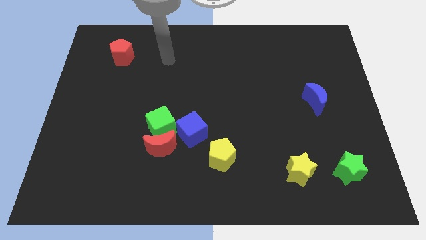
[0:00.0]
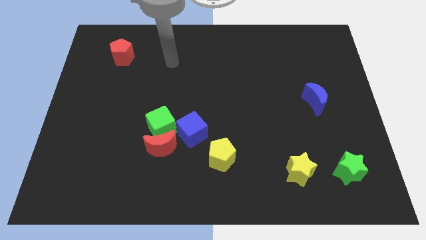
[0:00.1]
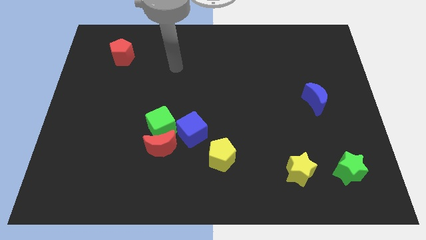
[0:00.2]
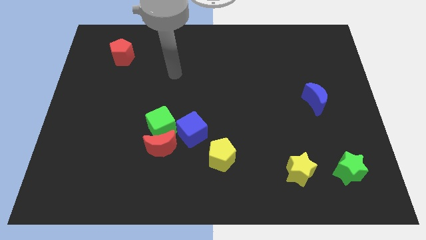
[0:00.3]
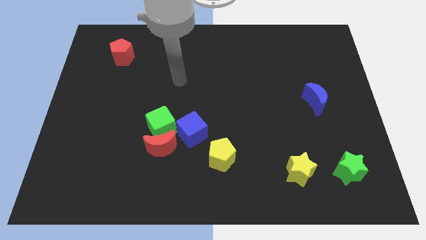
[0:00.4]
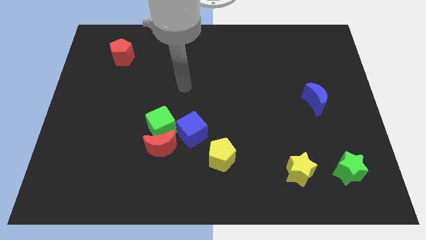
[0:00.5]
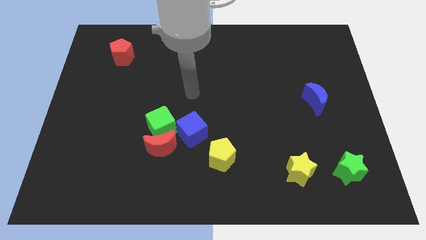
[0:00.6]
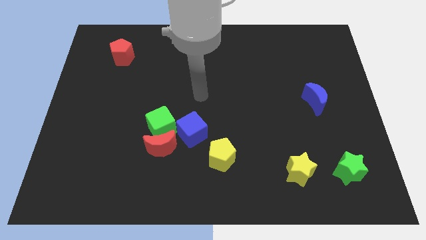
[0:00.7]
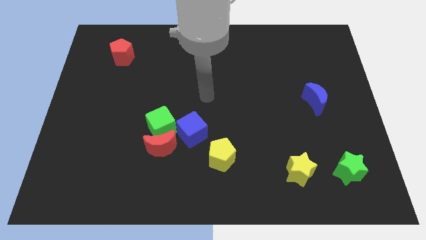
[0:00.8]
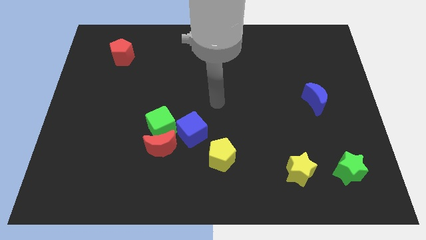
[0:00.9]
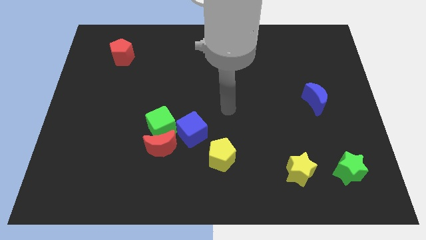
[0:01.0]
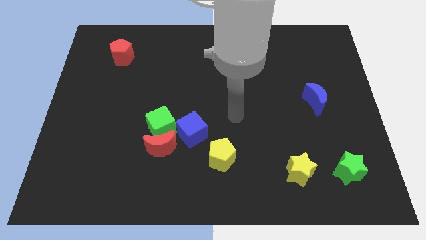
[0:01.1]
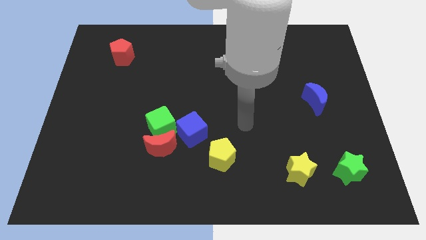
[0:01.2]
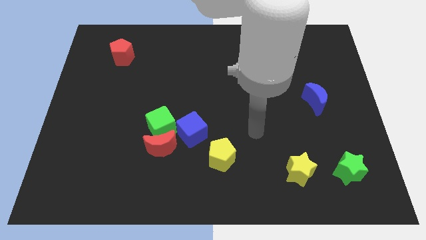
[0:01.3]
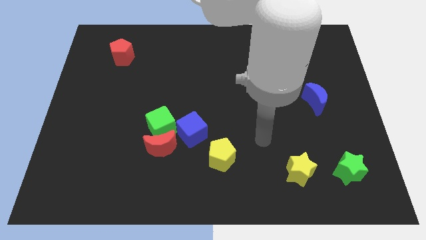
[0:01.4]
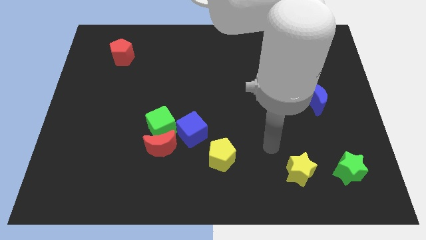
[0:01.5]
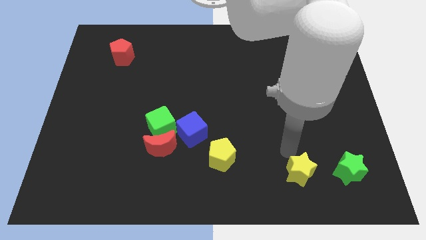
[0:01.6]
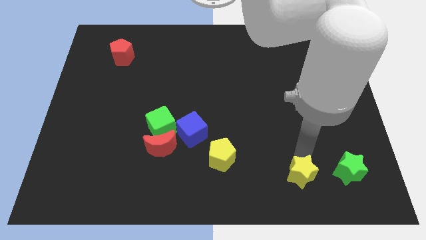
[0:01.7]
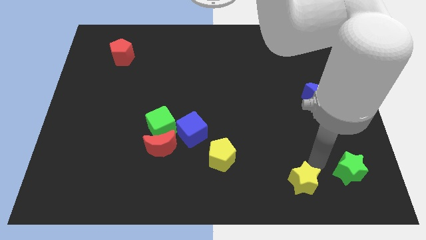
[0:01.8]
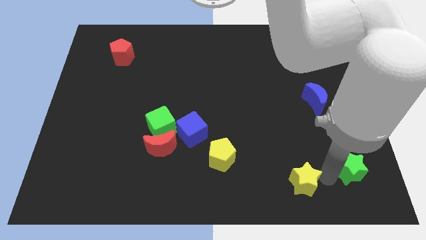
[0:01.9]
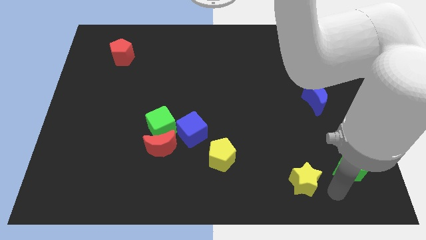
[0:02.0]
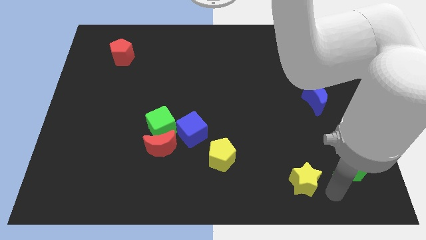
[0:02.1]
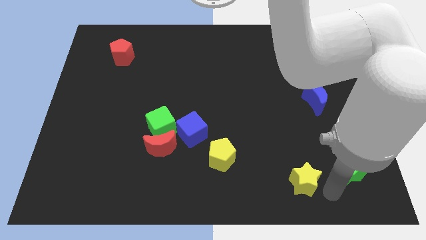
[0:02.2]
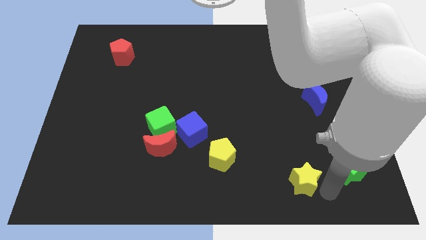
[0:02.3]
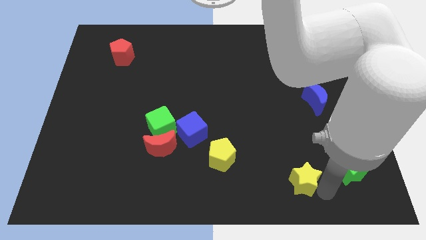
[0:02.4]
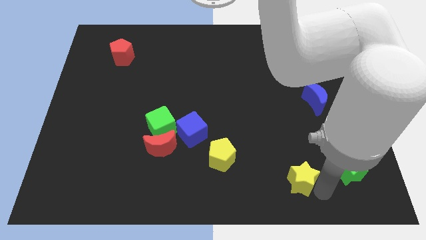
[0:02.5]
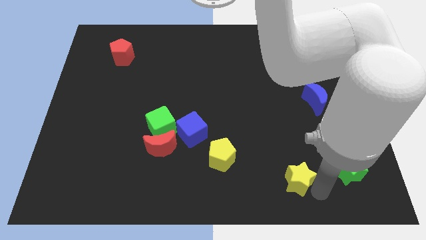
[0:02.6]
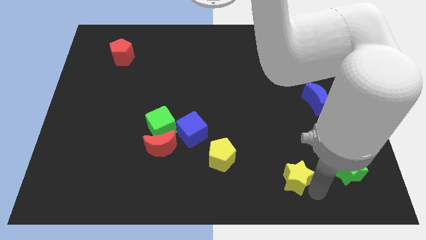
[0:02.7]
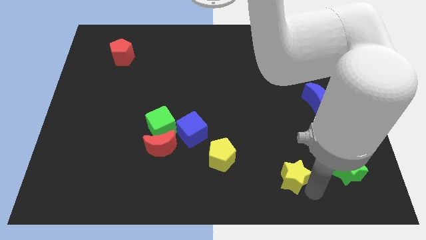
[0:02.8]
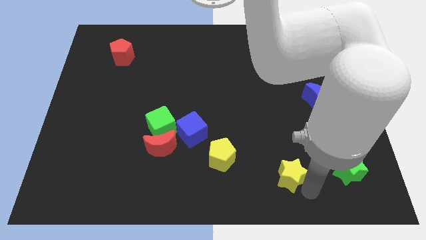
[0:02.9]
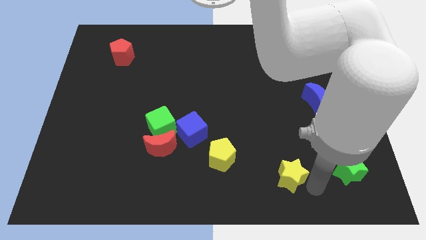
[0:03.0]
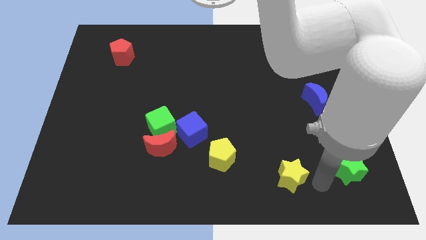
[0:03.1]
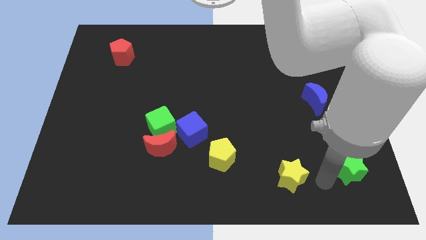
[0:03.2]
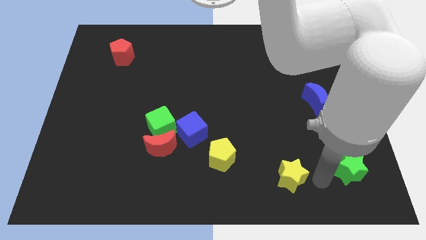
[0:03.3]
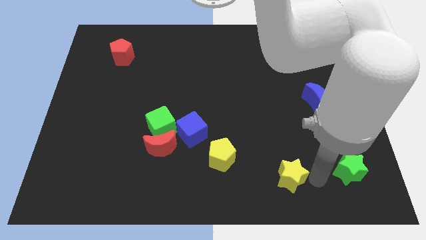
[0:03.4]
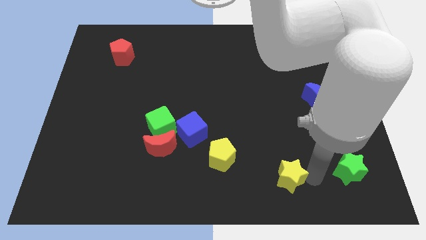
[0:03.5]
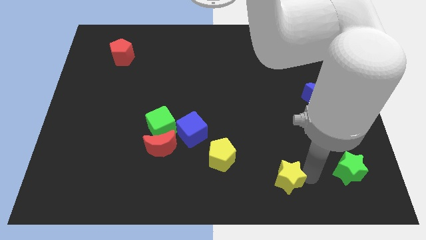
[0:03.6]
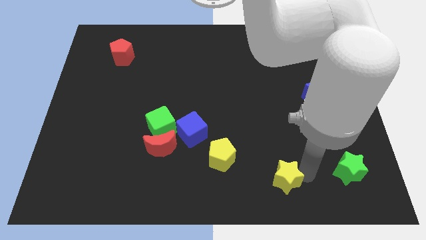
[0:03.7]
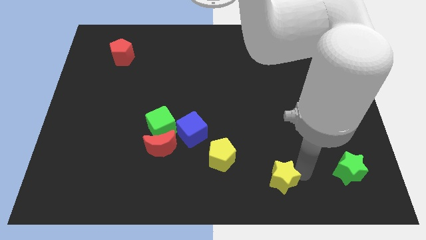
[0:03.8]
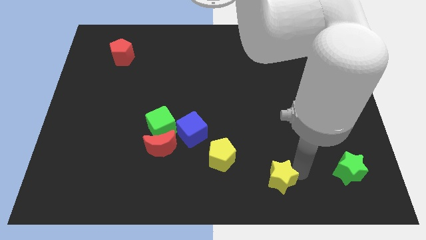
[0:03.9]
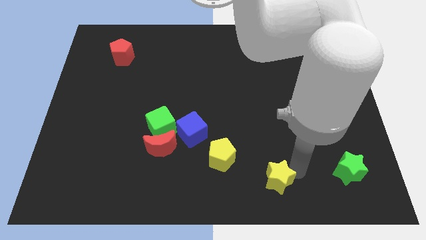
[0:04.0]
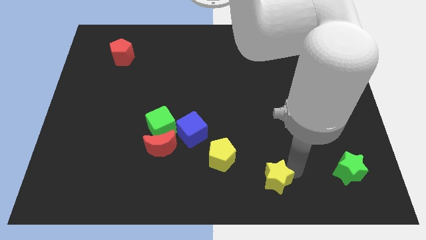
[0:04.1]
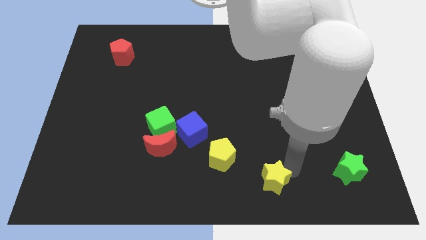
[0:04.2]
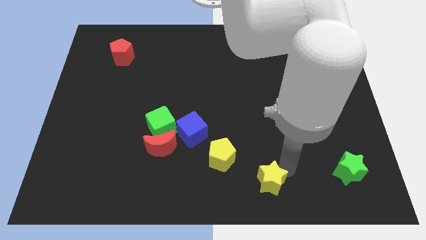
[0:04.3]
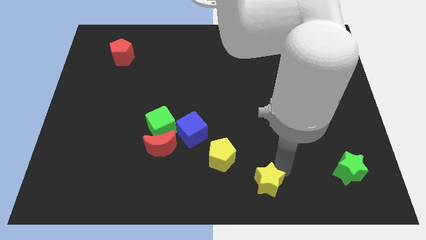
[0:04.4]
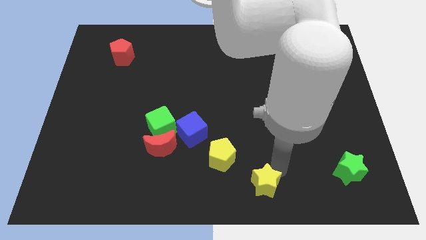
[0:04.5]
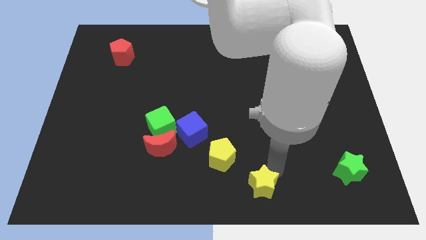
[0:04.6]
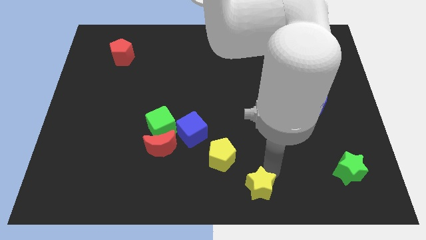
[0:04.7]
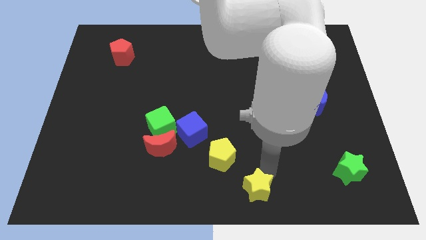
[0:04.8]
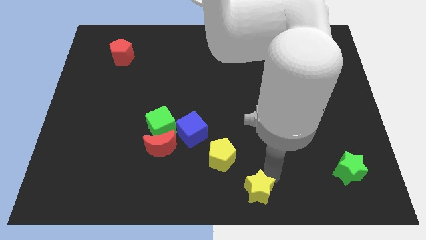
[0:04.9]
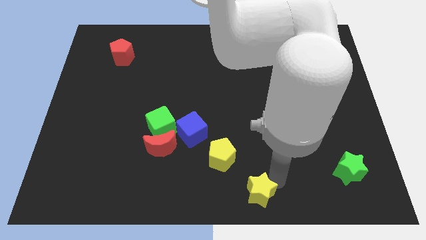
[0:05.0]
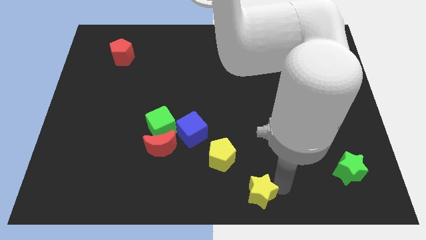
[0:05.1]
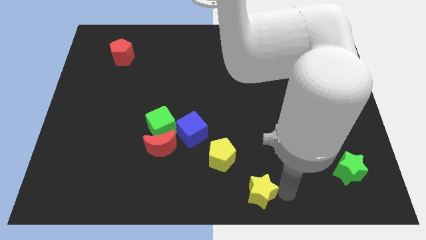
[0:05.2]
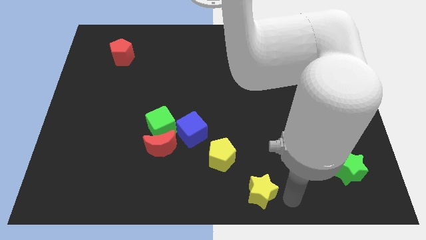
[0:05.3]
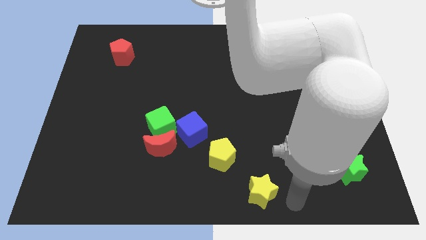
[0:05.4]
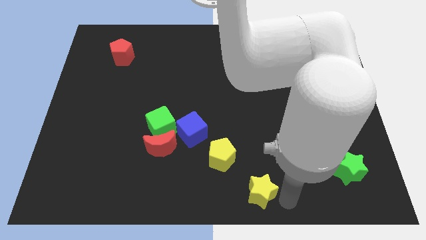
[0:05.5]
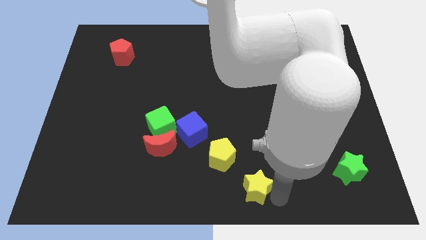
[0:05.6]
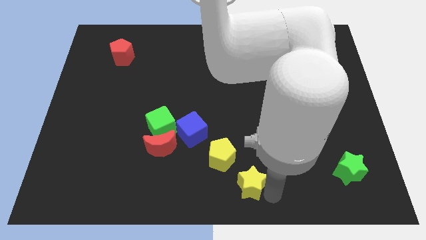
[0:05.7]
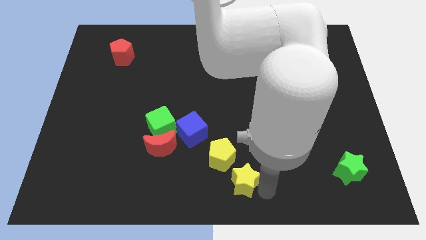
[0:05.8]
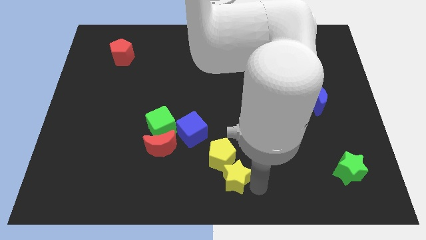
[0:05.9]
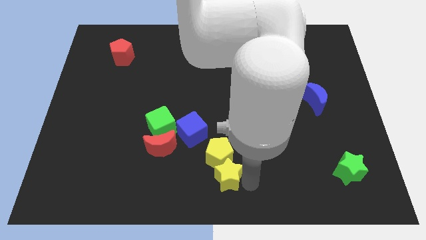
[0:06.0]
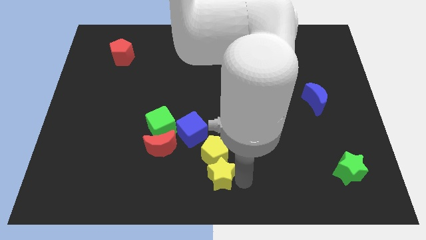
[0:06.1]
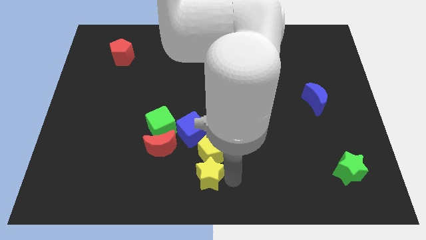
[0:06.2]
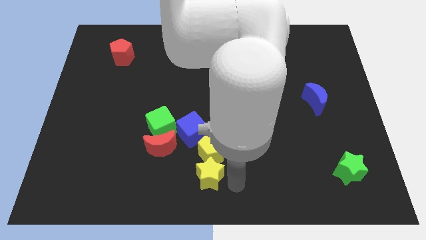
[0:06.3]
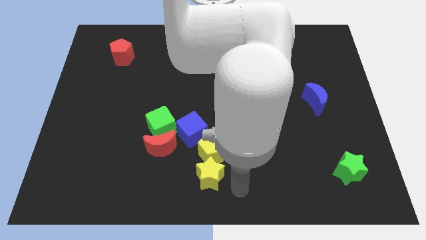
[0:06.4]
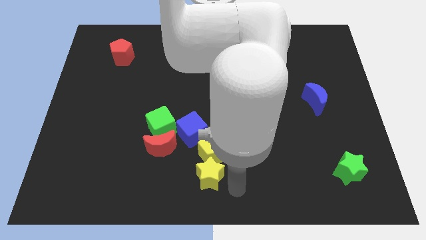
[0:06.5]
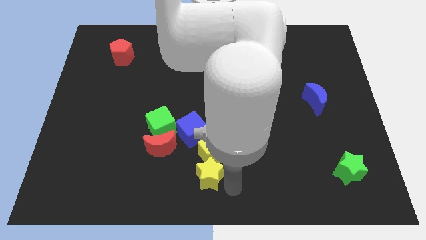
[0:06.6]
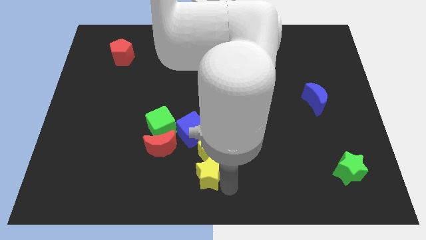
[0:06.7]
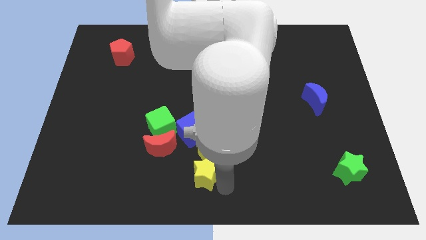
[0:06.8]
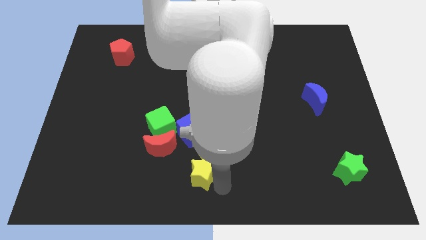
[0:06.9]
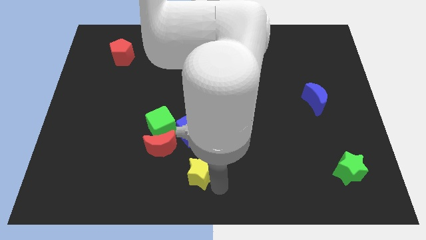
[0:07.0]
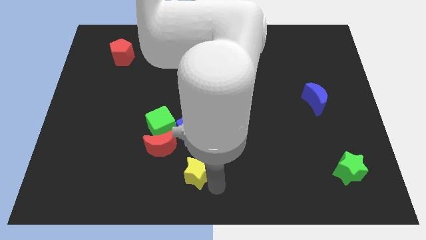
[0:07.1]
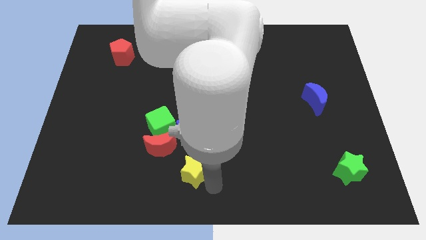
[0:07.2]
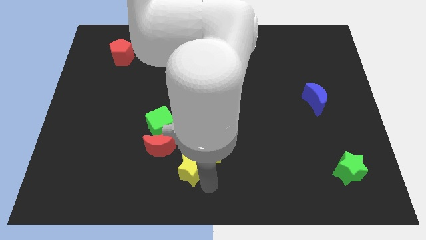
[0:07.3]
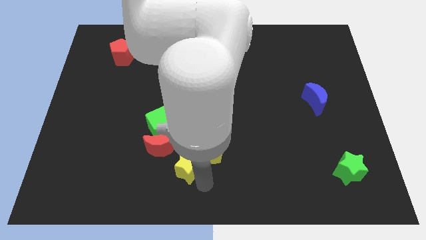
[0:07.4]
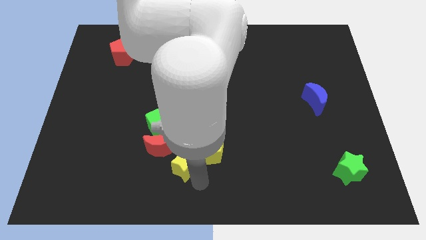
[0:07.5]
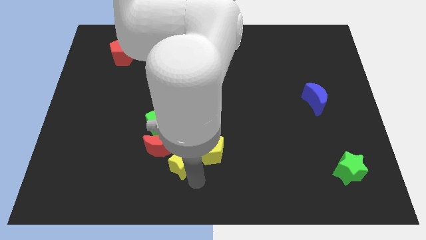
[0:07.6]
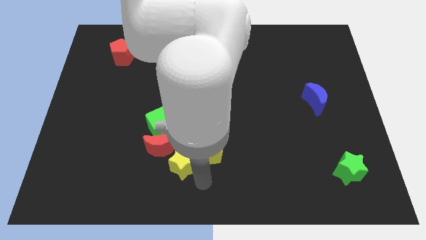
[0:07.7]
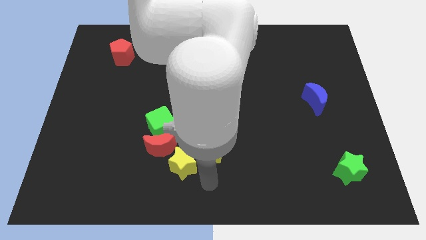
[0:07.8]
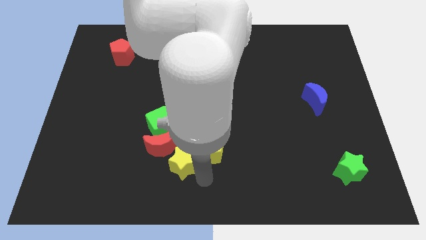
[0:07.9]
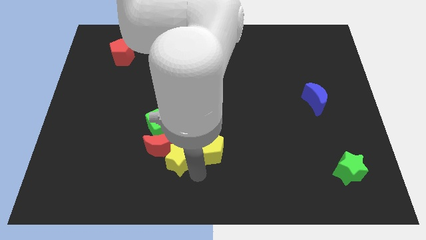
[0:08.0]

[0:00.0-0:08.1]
push the yellow star towards the red moon
